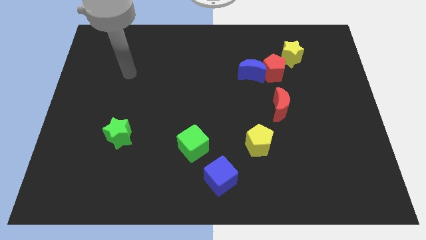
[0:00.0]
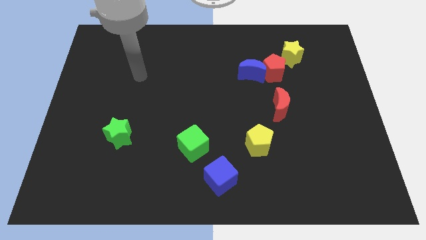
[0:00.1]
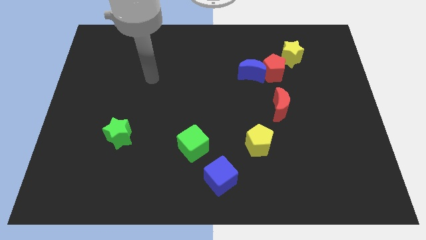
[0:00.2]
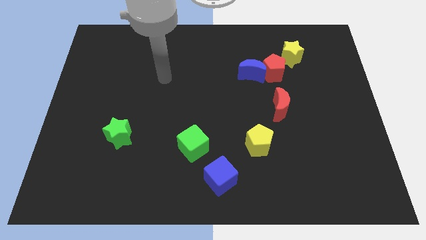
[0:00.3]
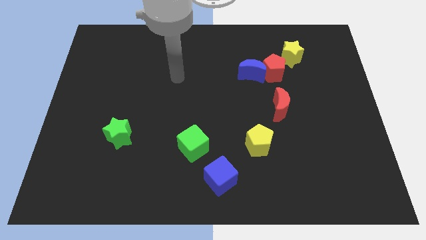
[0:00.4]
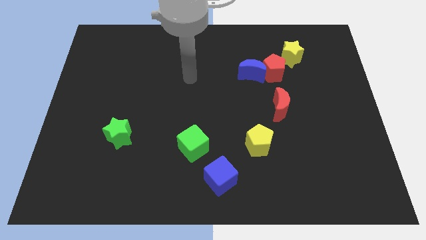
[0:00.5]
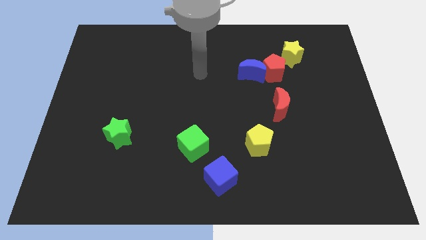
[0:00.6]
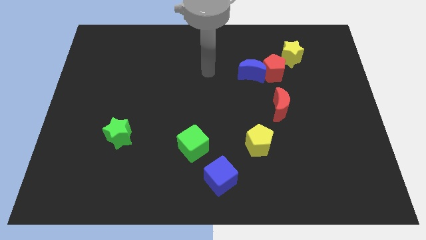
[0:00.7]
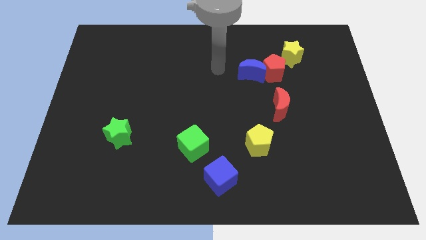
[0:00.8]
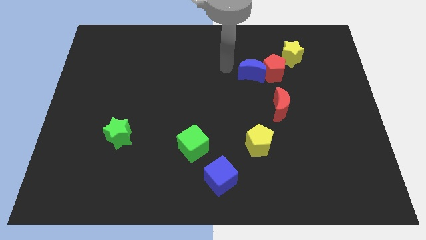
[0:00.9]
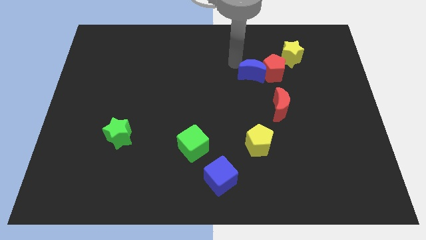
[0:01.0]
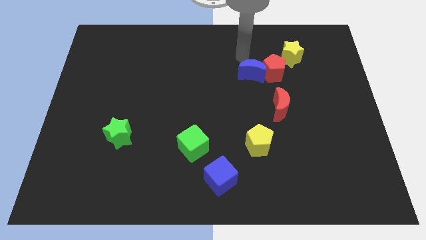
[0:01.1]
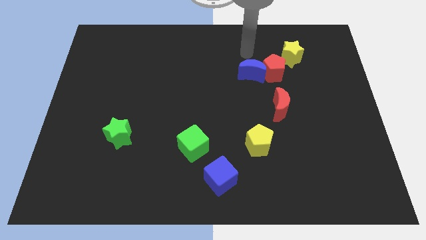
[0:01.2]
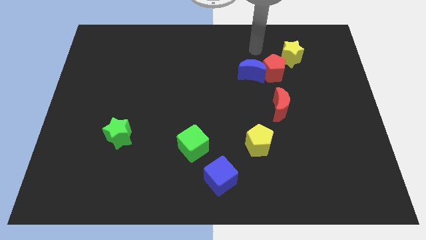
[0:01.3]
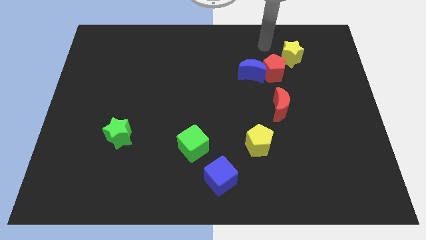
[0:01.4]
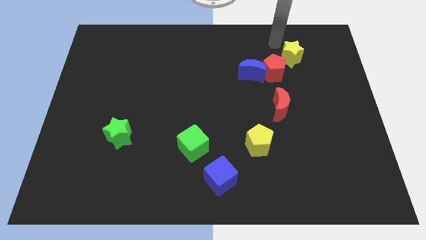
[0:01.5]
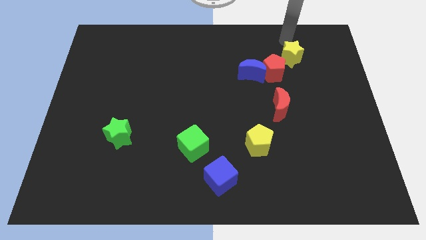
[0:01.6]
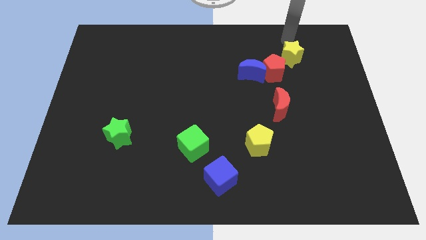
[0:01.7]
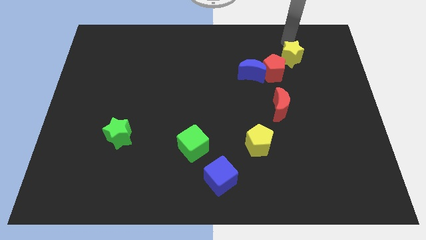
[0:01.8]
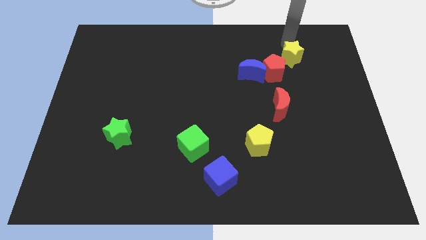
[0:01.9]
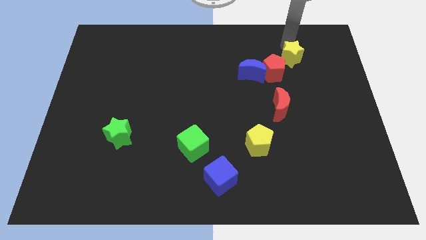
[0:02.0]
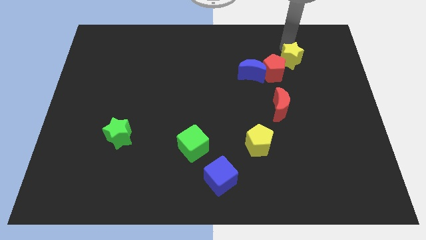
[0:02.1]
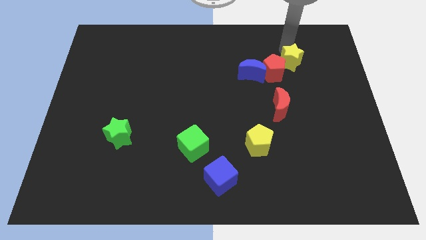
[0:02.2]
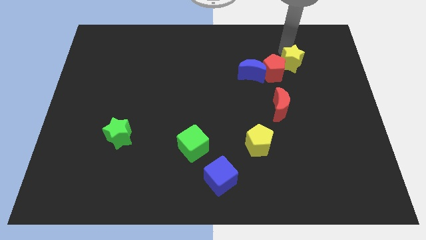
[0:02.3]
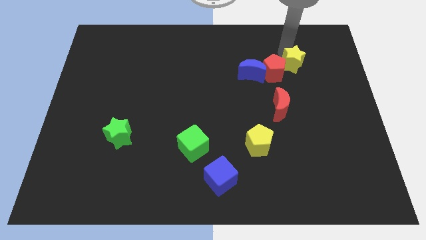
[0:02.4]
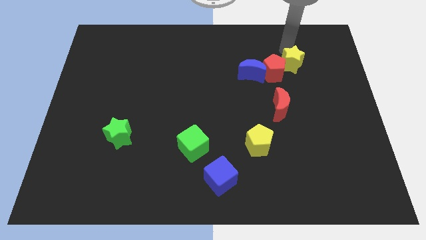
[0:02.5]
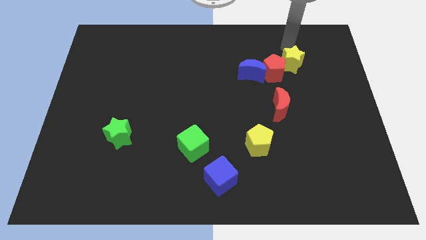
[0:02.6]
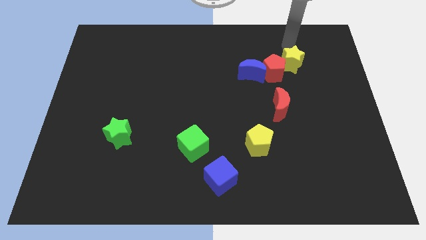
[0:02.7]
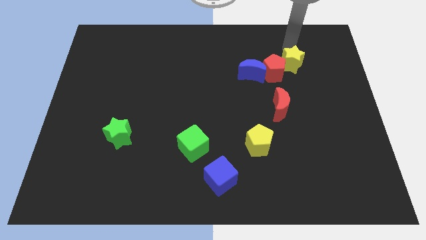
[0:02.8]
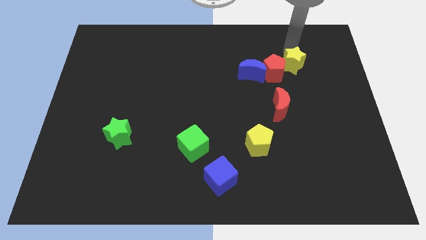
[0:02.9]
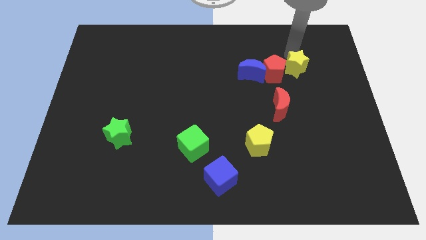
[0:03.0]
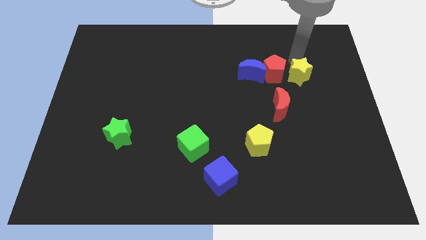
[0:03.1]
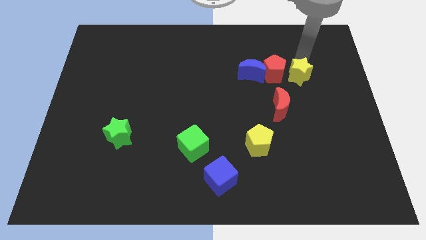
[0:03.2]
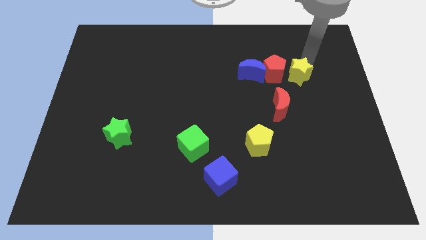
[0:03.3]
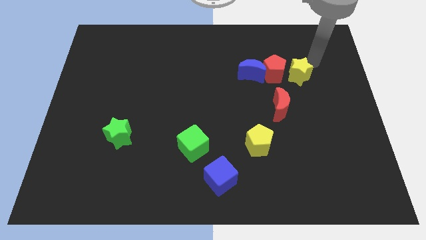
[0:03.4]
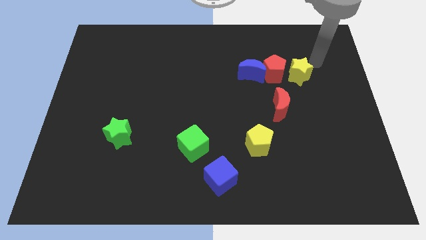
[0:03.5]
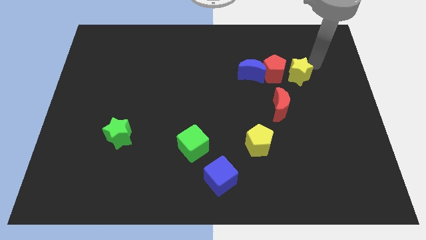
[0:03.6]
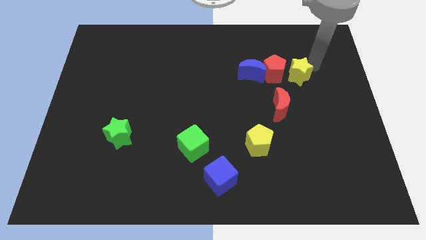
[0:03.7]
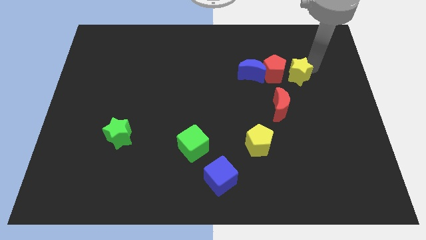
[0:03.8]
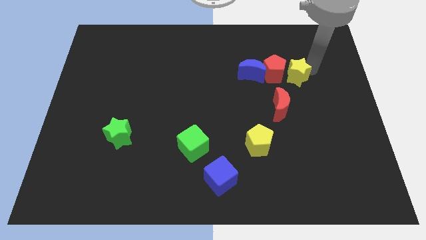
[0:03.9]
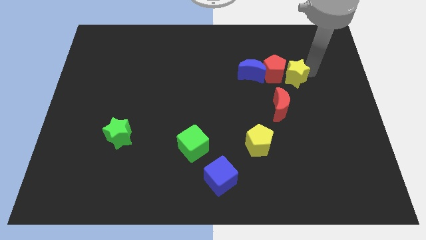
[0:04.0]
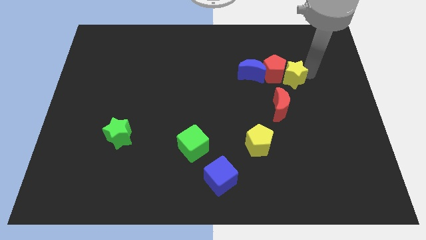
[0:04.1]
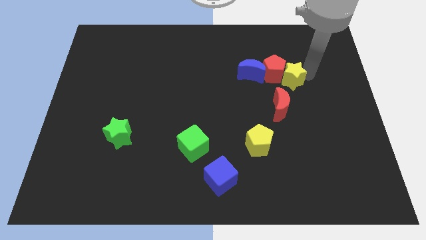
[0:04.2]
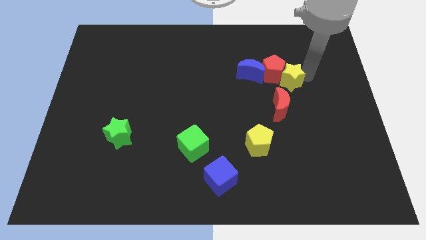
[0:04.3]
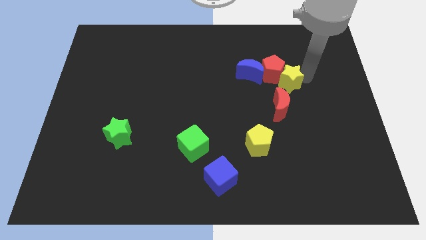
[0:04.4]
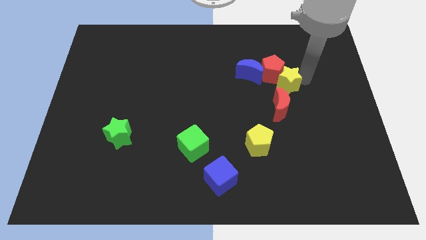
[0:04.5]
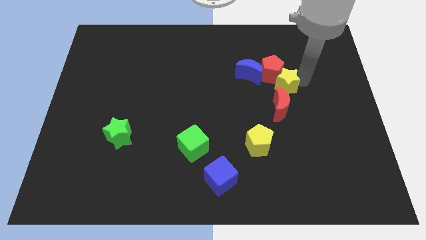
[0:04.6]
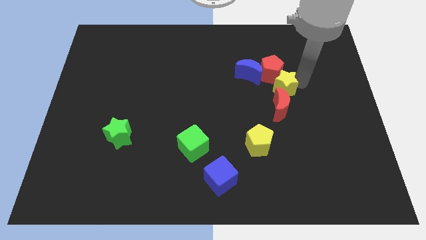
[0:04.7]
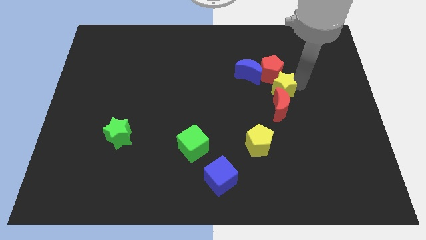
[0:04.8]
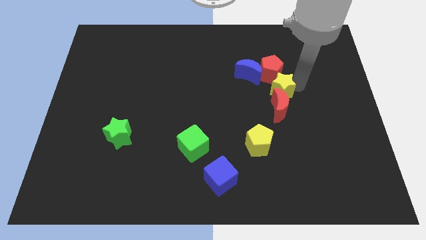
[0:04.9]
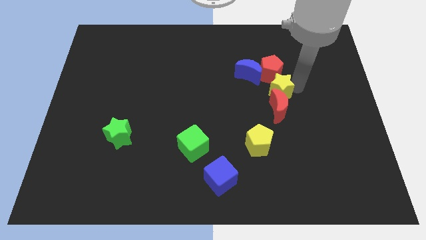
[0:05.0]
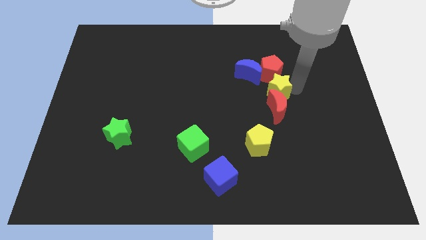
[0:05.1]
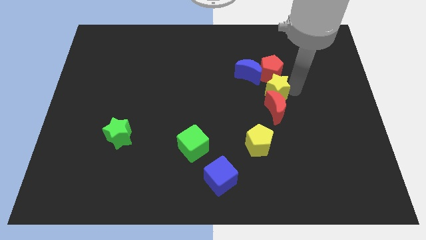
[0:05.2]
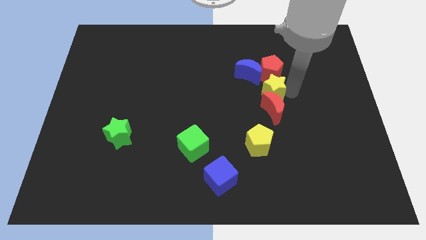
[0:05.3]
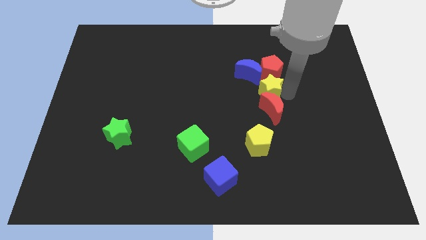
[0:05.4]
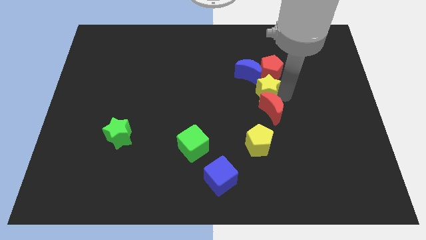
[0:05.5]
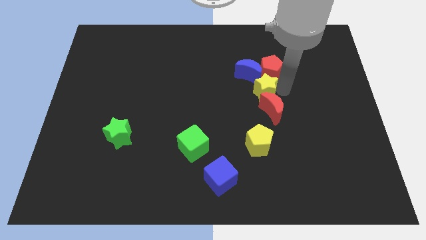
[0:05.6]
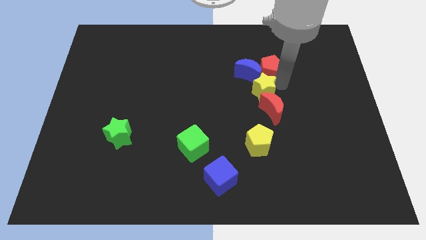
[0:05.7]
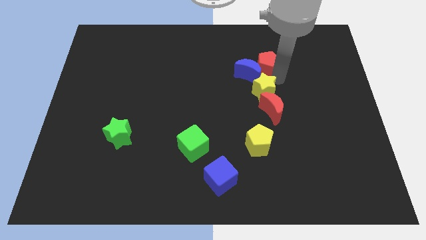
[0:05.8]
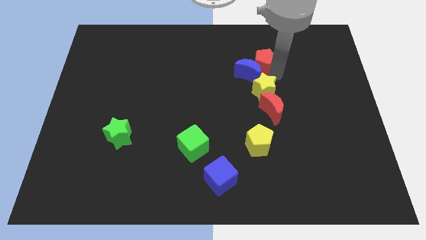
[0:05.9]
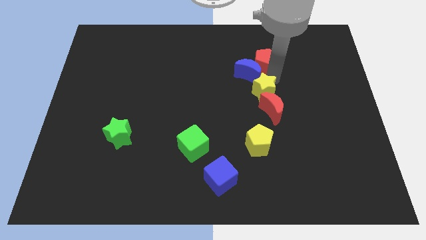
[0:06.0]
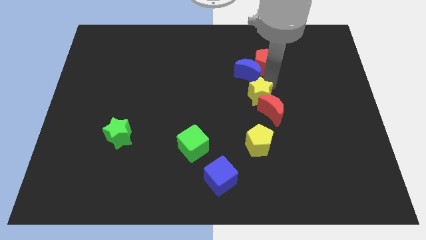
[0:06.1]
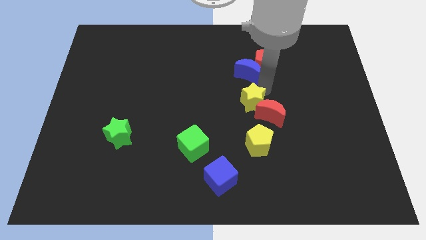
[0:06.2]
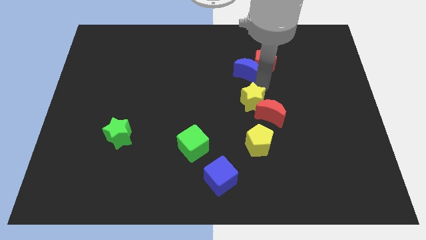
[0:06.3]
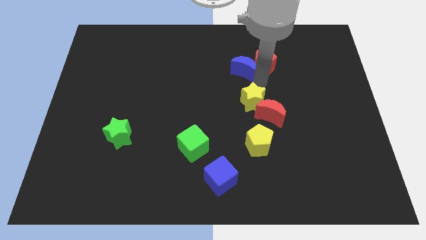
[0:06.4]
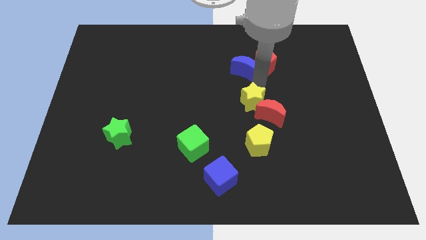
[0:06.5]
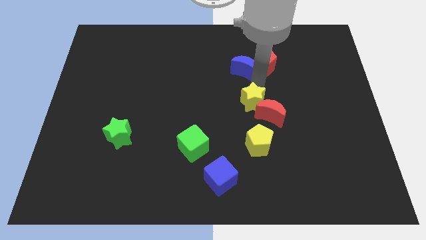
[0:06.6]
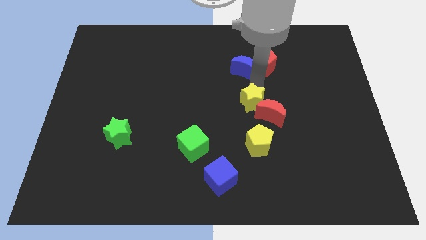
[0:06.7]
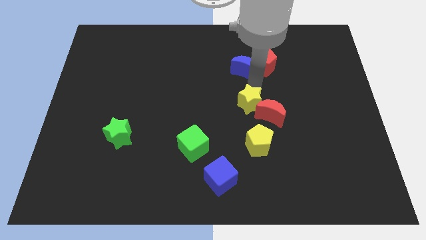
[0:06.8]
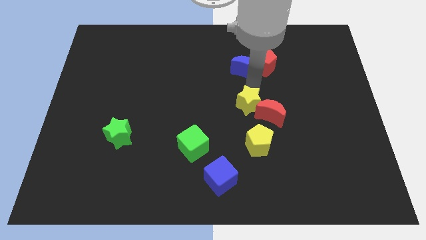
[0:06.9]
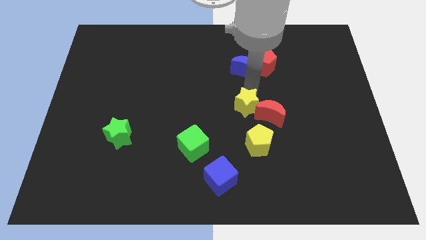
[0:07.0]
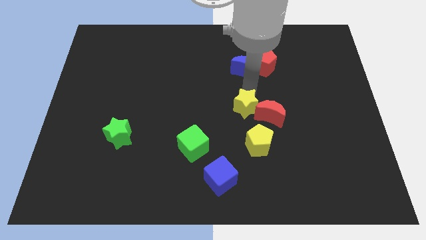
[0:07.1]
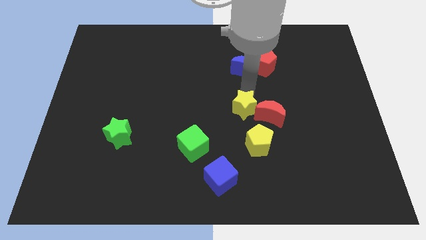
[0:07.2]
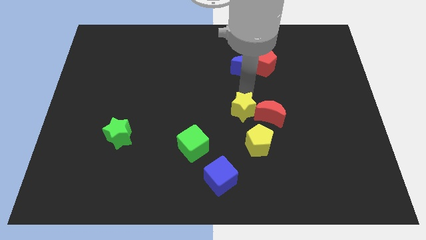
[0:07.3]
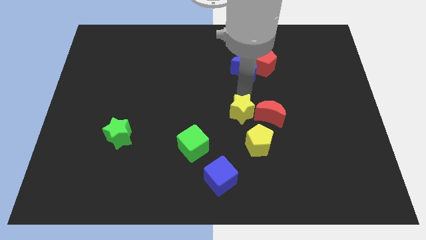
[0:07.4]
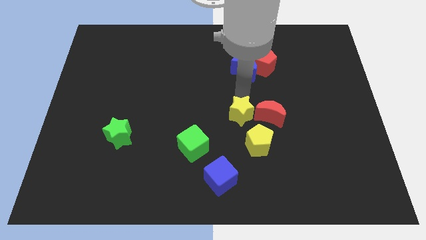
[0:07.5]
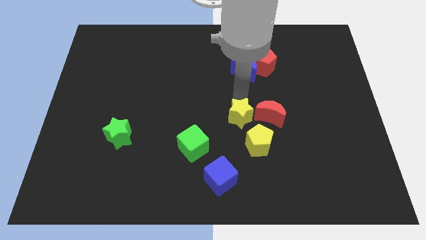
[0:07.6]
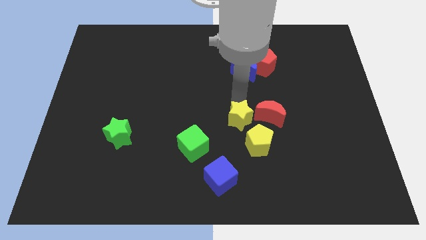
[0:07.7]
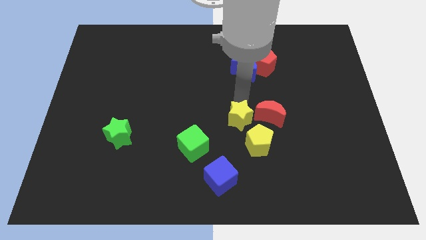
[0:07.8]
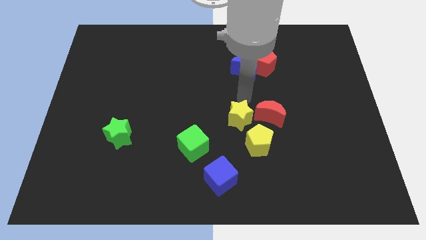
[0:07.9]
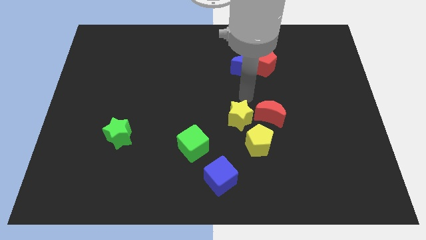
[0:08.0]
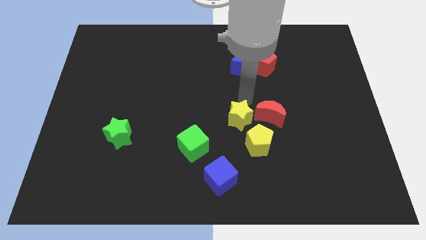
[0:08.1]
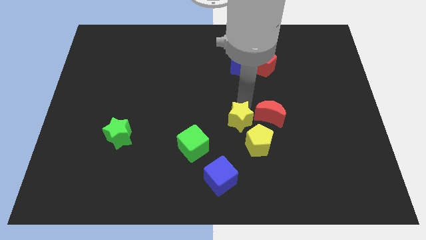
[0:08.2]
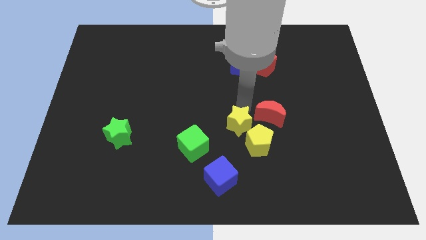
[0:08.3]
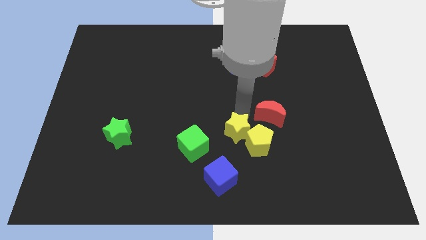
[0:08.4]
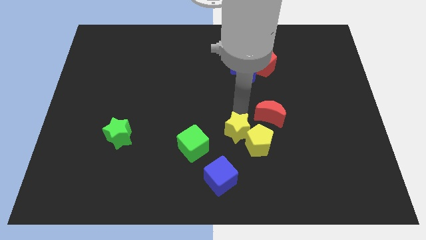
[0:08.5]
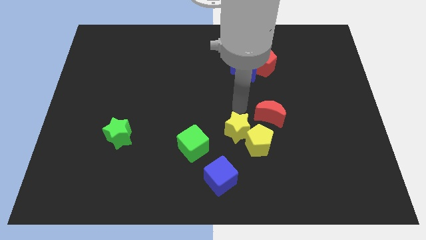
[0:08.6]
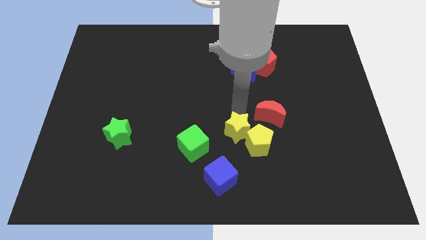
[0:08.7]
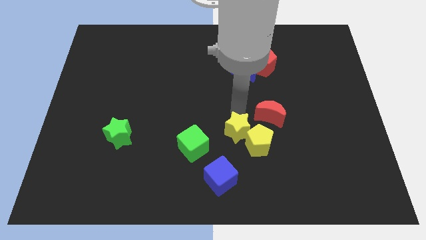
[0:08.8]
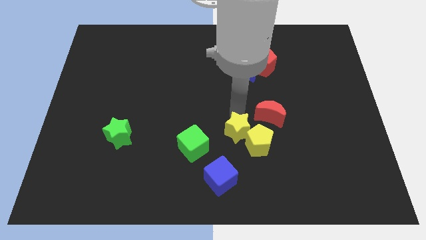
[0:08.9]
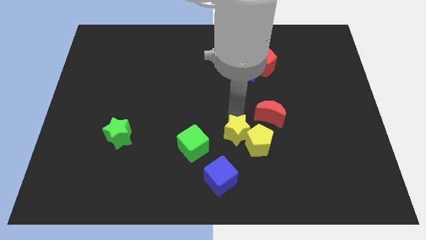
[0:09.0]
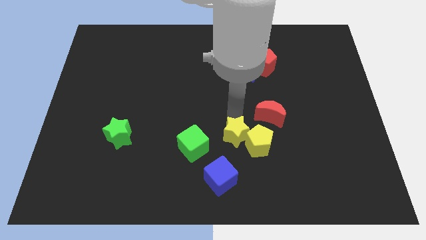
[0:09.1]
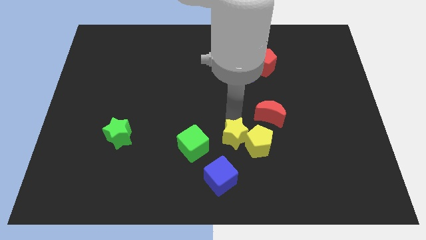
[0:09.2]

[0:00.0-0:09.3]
slide the yellow star to the bottom left side of the yellow pentagon
